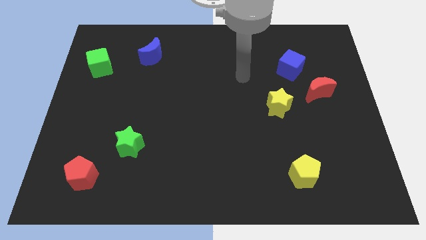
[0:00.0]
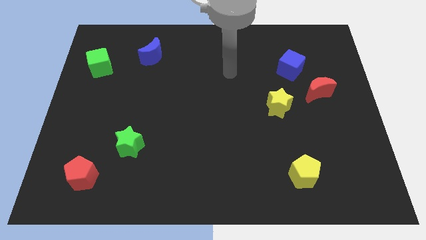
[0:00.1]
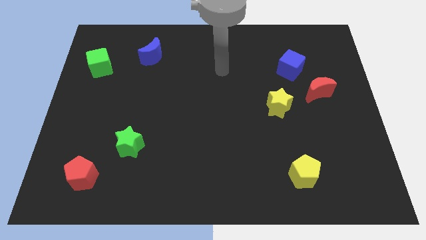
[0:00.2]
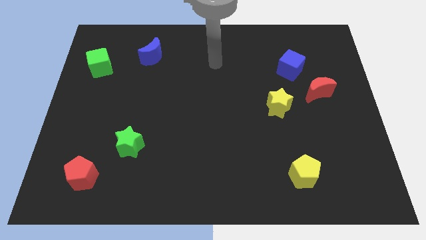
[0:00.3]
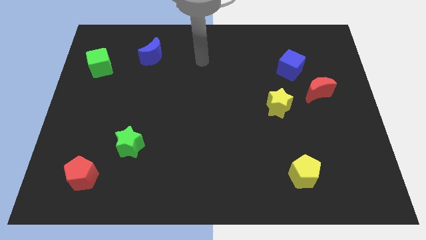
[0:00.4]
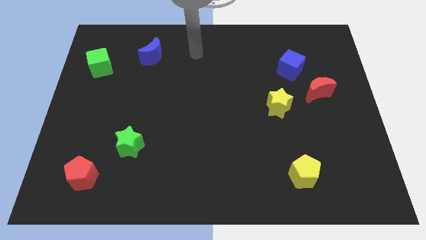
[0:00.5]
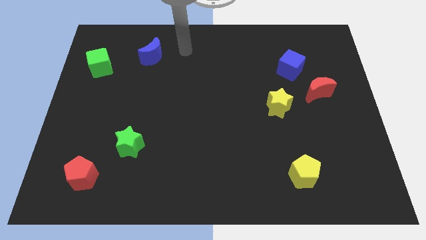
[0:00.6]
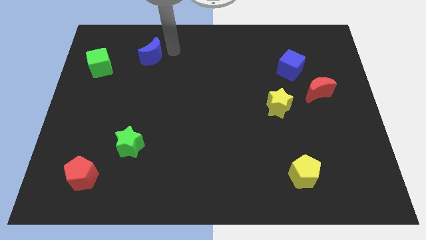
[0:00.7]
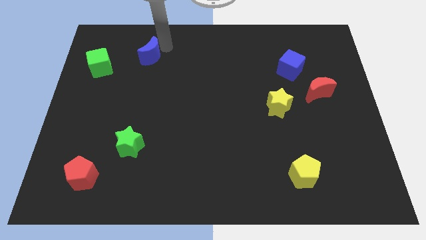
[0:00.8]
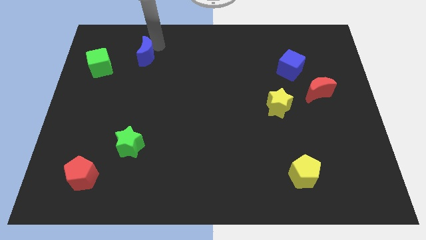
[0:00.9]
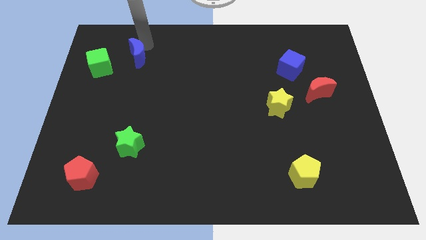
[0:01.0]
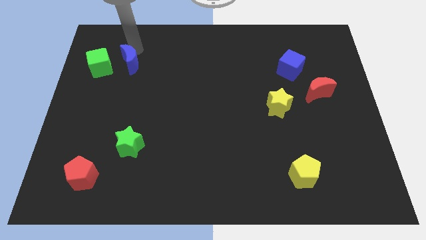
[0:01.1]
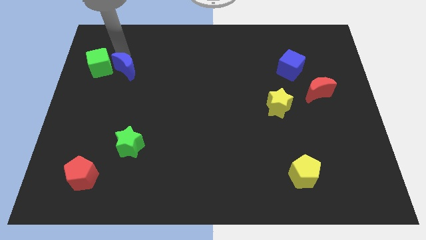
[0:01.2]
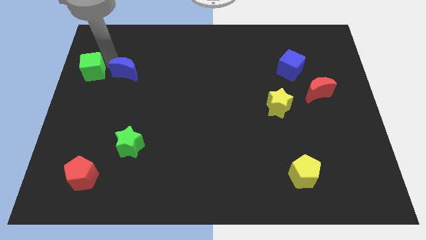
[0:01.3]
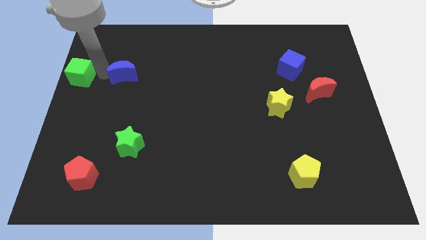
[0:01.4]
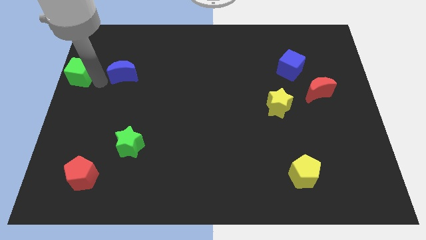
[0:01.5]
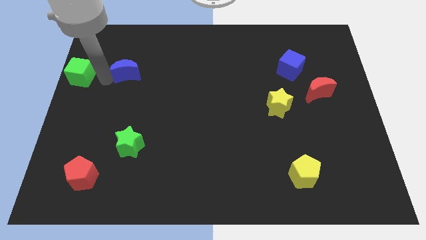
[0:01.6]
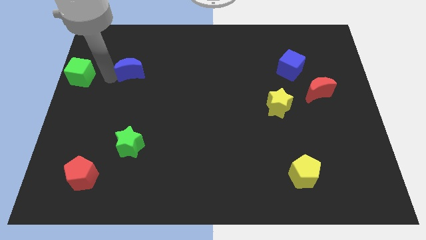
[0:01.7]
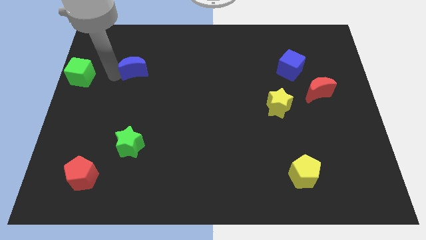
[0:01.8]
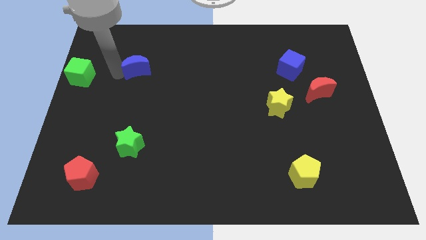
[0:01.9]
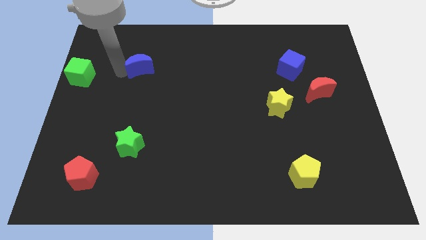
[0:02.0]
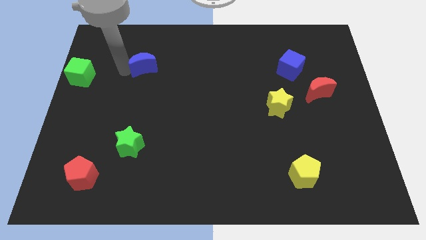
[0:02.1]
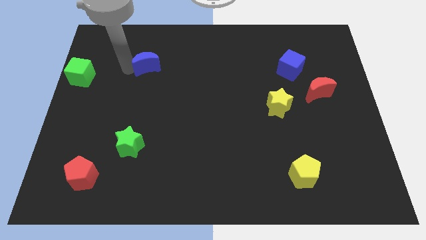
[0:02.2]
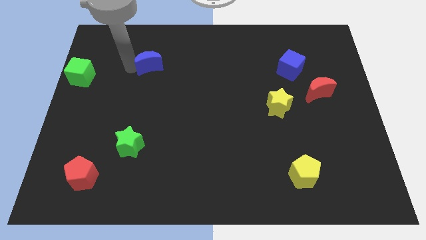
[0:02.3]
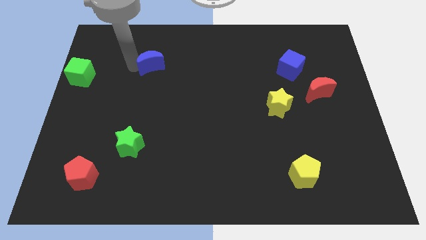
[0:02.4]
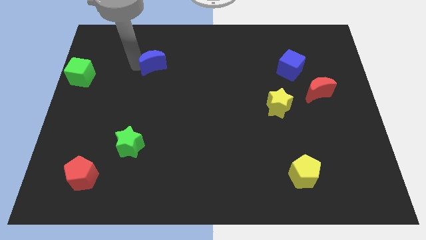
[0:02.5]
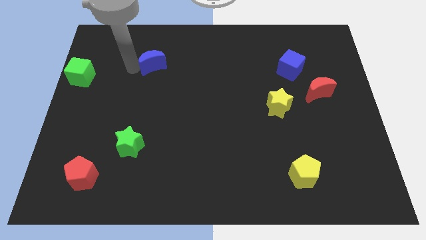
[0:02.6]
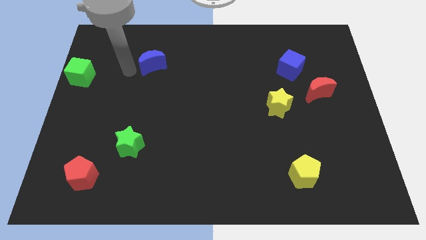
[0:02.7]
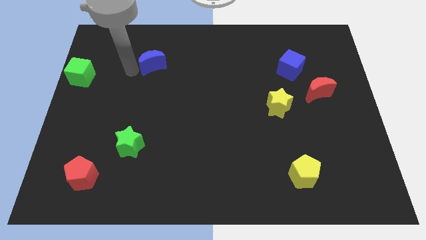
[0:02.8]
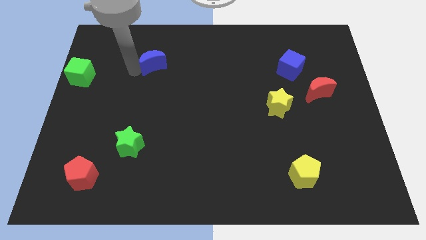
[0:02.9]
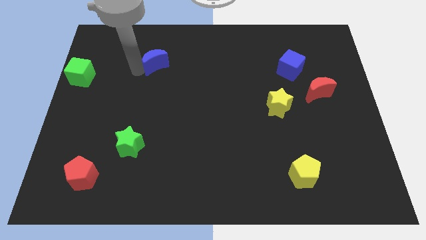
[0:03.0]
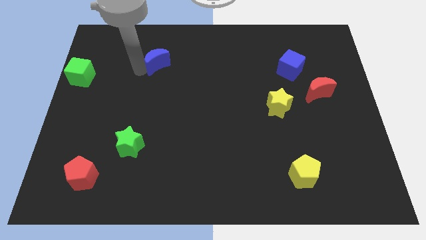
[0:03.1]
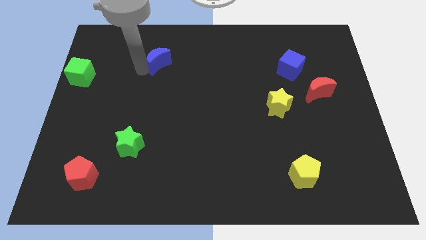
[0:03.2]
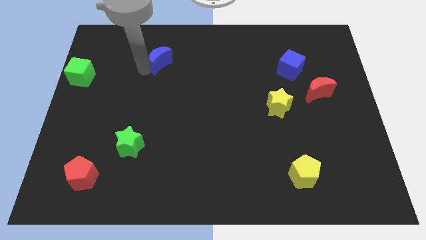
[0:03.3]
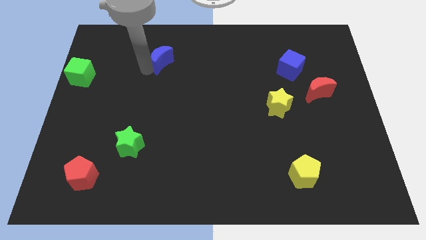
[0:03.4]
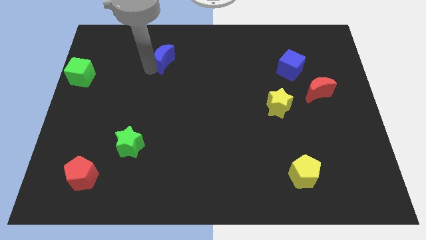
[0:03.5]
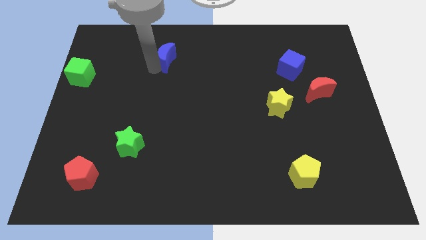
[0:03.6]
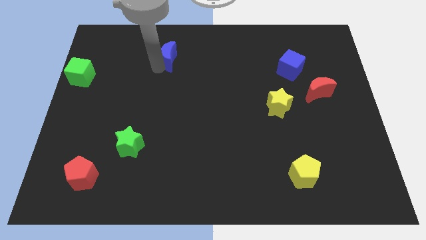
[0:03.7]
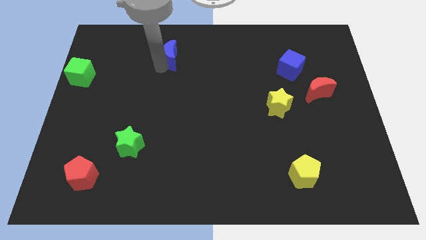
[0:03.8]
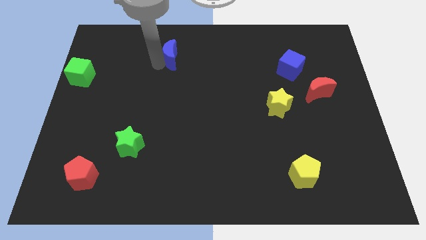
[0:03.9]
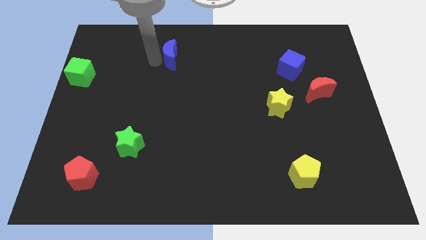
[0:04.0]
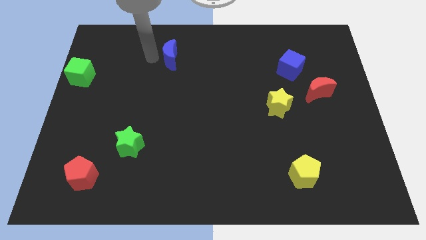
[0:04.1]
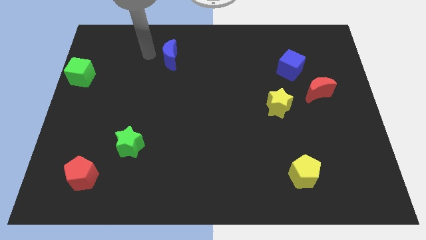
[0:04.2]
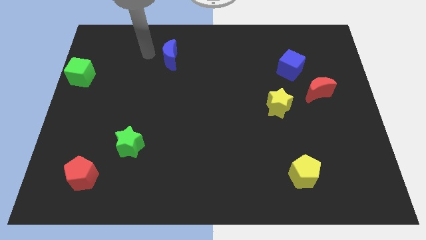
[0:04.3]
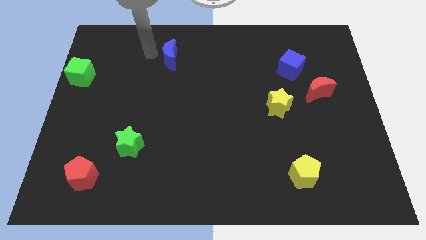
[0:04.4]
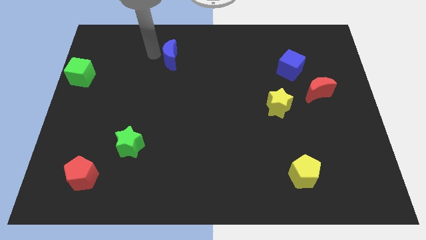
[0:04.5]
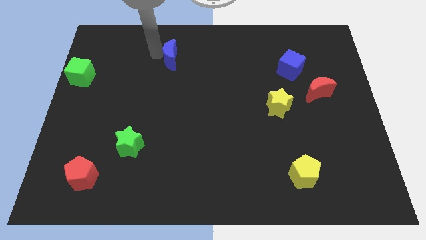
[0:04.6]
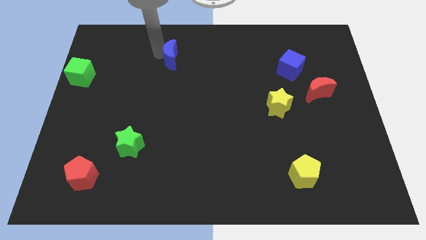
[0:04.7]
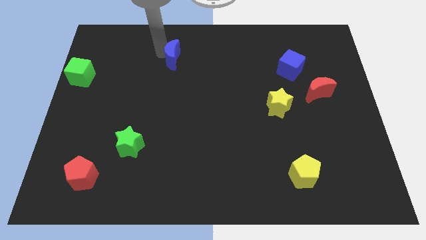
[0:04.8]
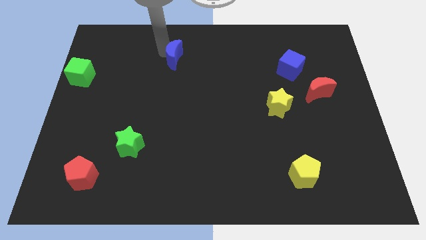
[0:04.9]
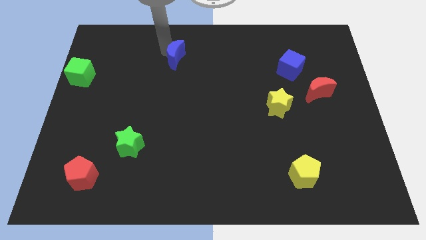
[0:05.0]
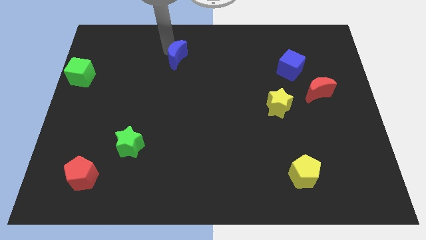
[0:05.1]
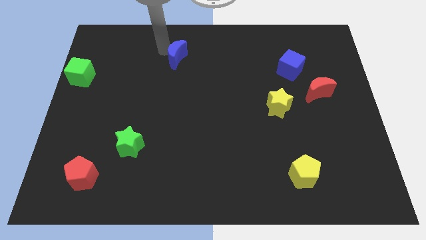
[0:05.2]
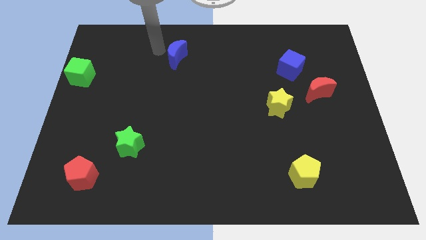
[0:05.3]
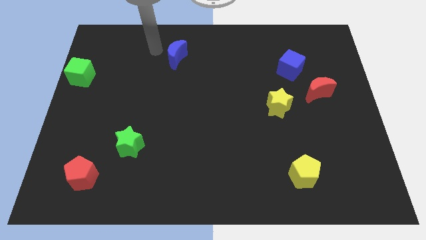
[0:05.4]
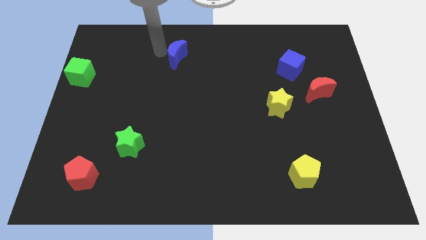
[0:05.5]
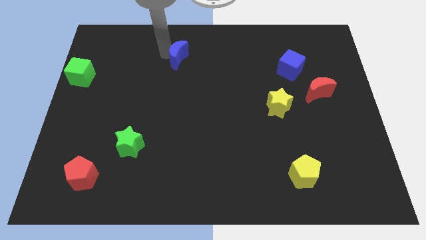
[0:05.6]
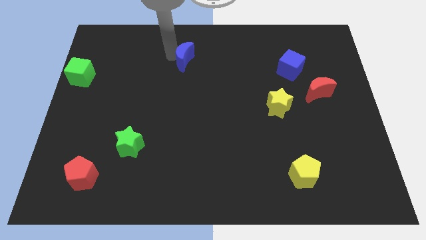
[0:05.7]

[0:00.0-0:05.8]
slide the blue moon to the right a little bit

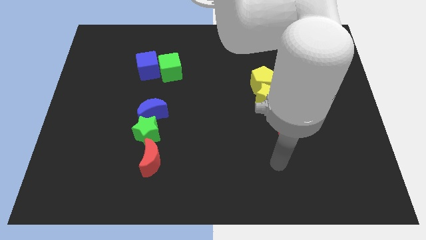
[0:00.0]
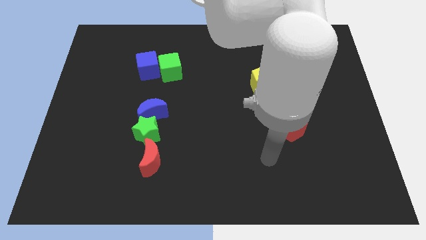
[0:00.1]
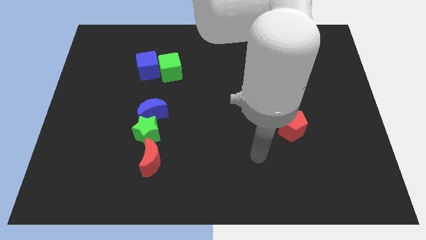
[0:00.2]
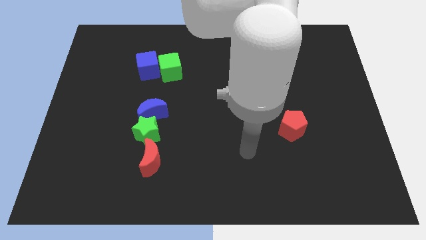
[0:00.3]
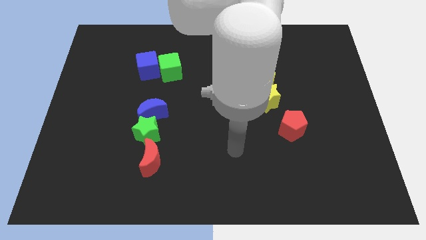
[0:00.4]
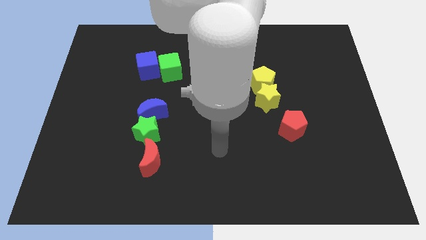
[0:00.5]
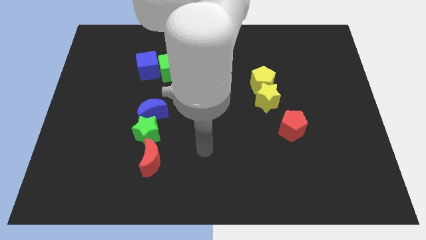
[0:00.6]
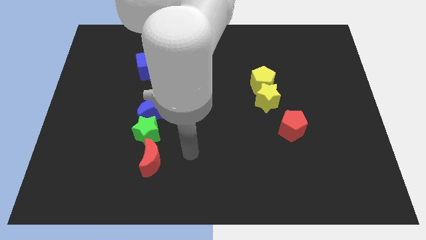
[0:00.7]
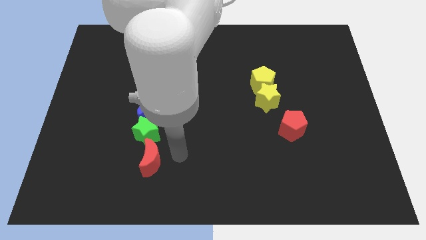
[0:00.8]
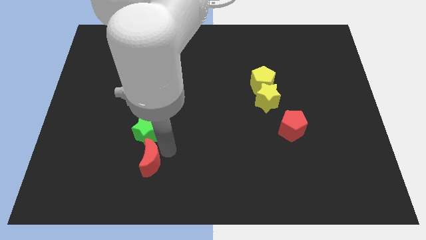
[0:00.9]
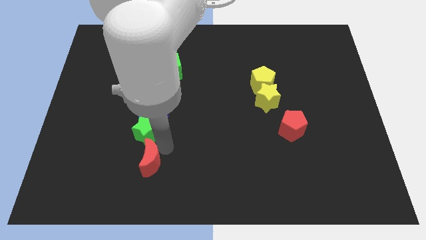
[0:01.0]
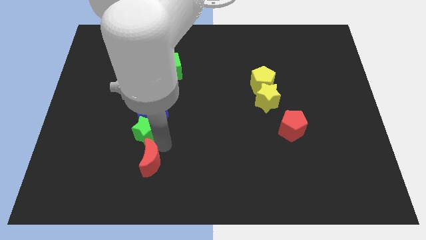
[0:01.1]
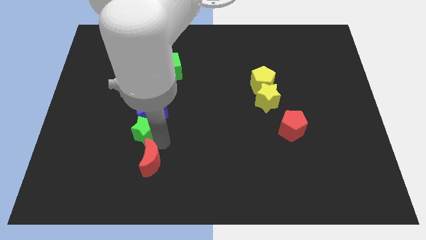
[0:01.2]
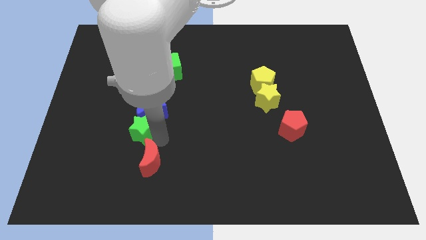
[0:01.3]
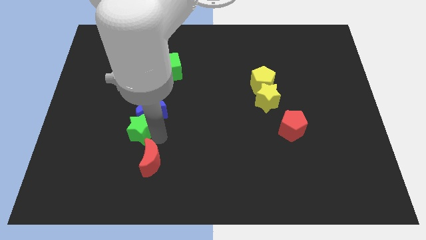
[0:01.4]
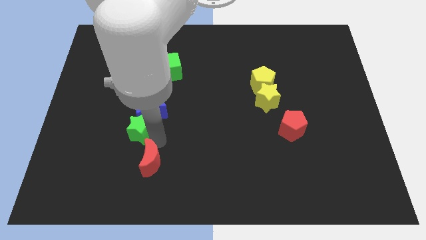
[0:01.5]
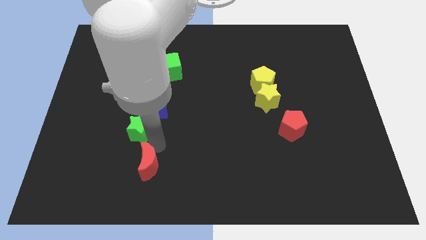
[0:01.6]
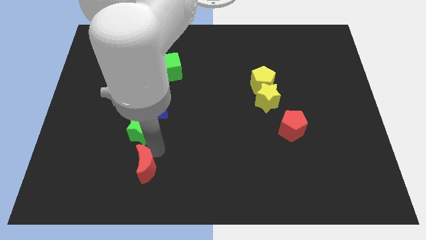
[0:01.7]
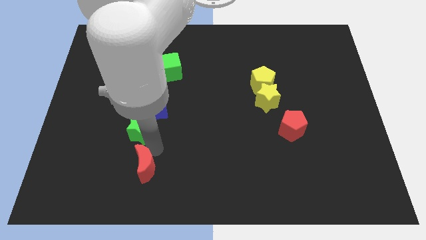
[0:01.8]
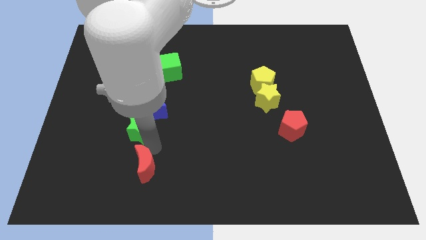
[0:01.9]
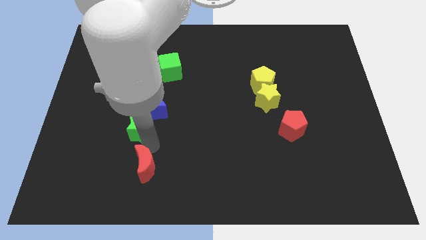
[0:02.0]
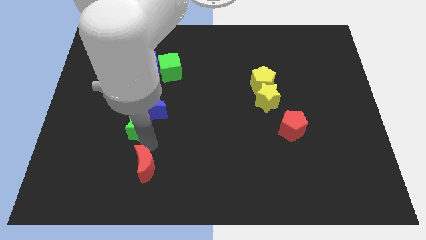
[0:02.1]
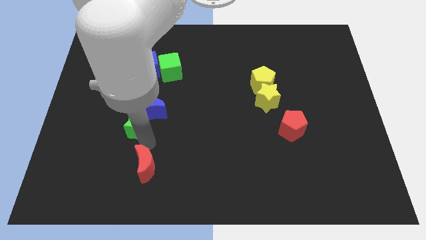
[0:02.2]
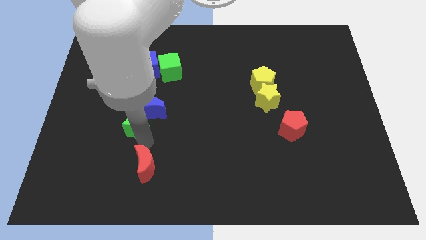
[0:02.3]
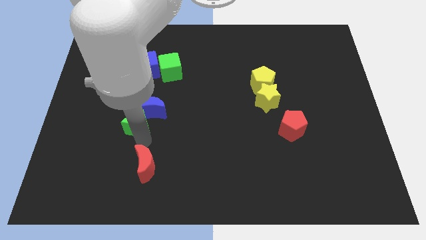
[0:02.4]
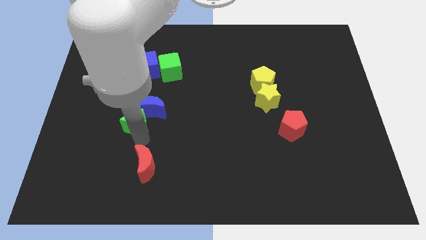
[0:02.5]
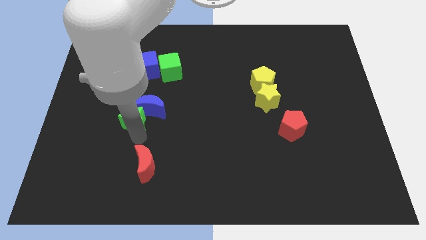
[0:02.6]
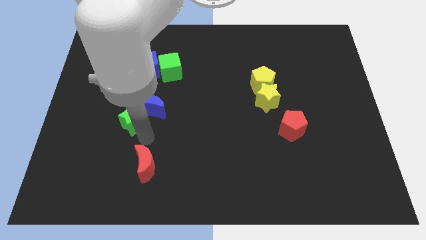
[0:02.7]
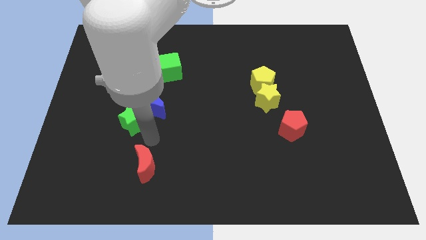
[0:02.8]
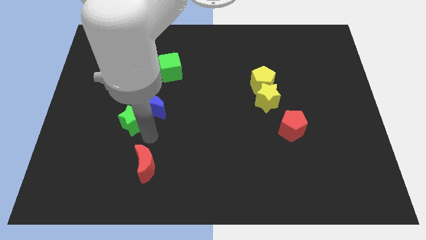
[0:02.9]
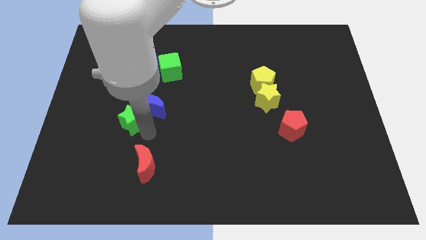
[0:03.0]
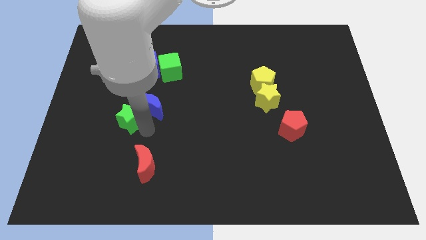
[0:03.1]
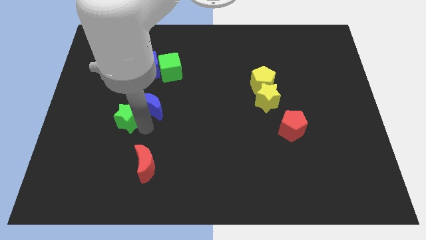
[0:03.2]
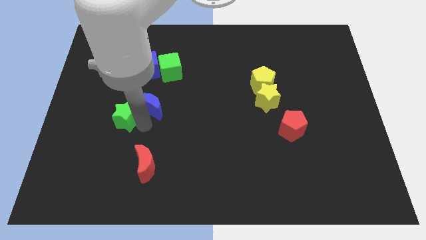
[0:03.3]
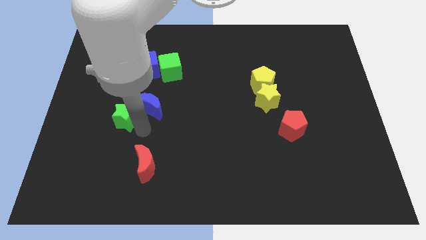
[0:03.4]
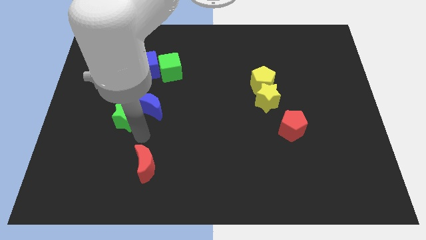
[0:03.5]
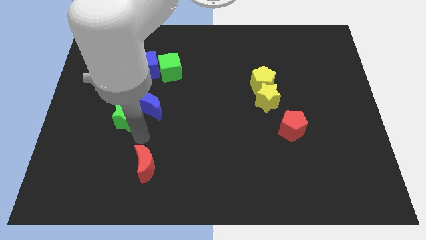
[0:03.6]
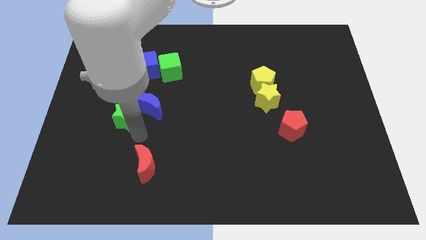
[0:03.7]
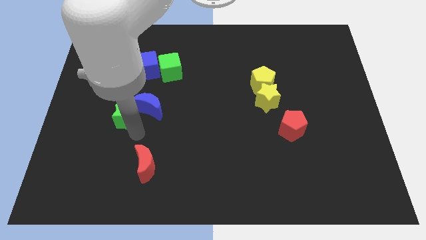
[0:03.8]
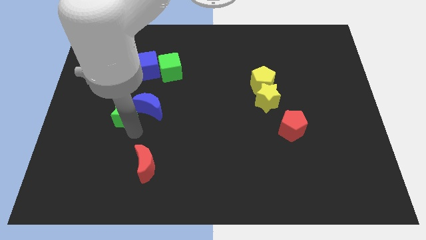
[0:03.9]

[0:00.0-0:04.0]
move the green star somewhat up and then to the left
